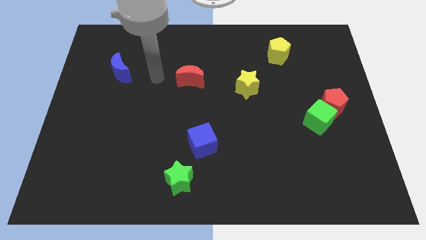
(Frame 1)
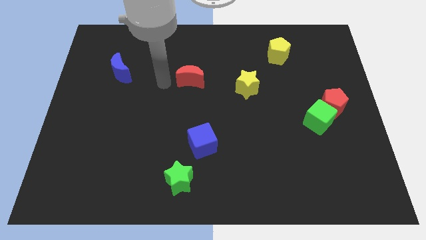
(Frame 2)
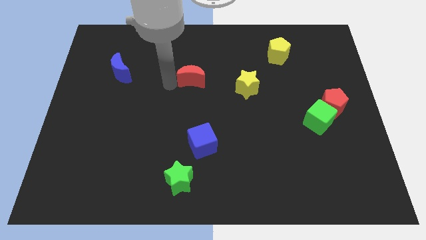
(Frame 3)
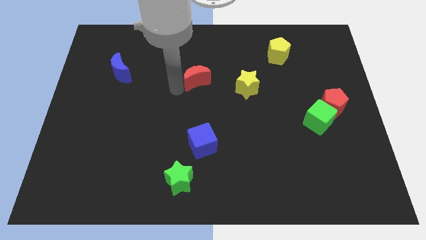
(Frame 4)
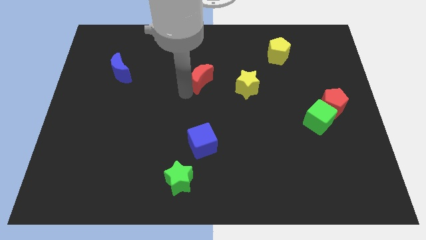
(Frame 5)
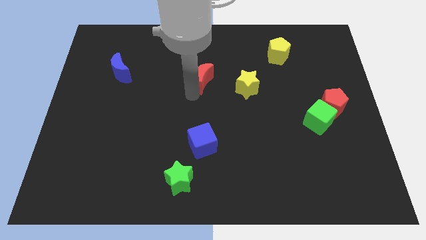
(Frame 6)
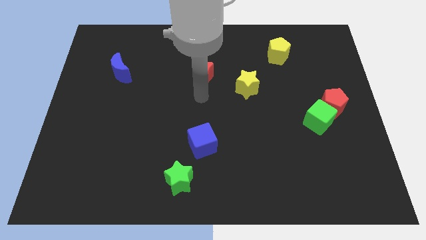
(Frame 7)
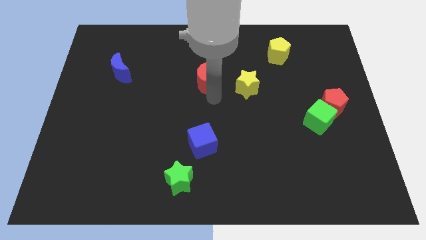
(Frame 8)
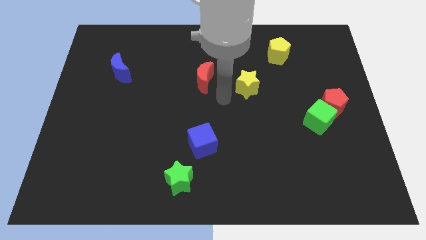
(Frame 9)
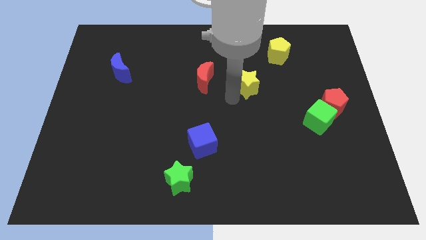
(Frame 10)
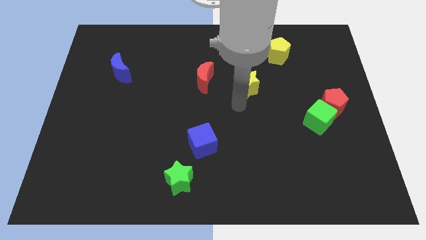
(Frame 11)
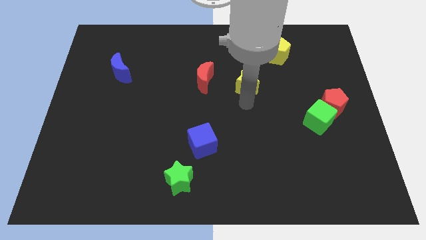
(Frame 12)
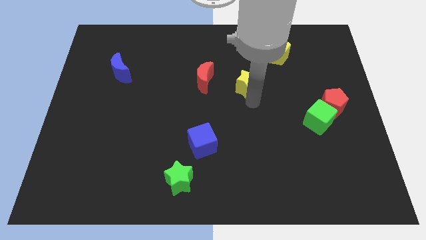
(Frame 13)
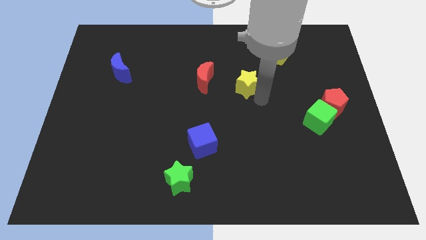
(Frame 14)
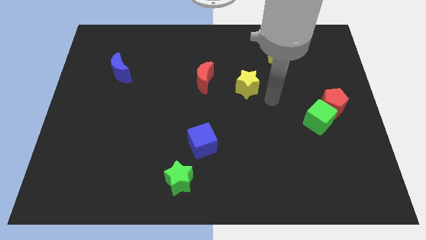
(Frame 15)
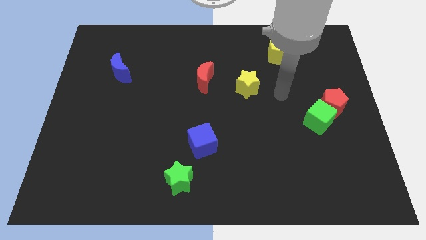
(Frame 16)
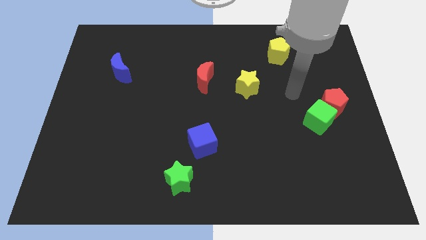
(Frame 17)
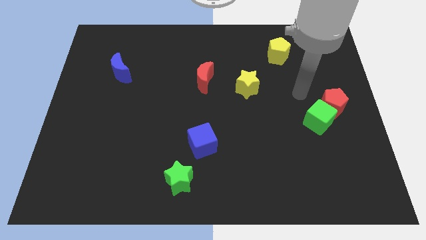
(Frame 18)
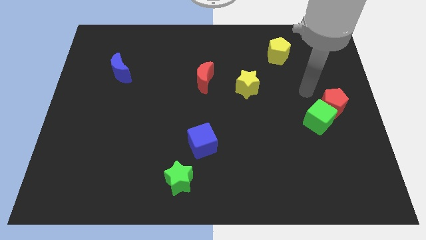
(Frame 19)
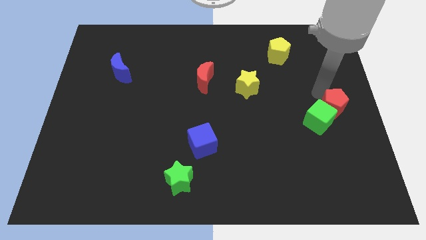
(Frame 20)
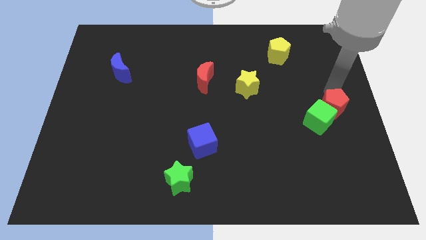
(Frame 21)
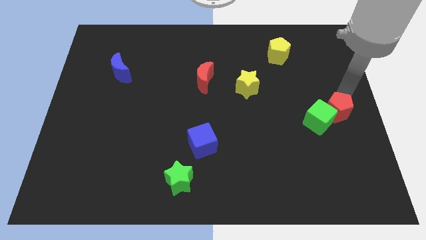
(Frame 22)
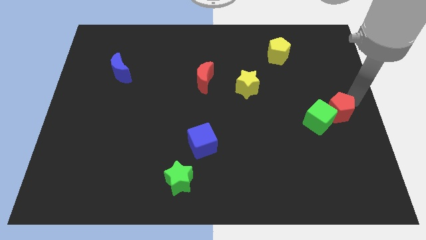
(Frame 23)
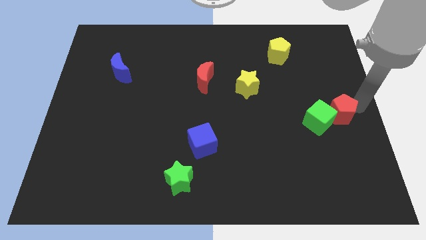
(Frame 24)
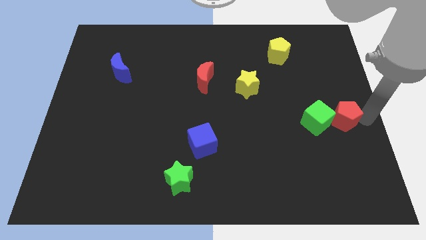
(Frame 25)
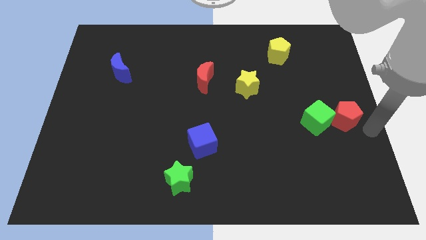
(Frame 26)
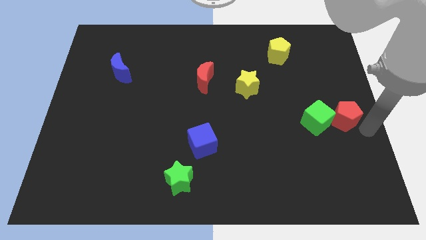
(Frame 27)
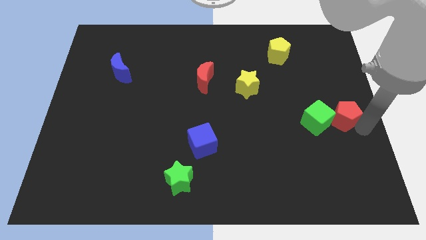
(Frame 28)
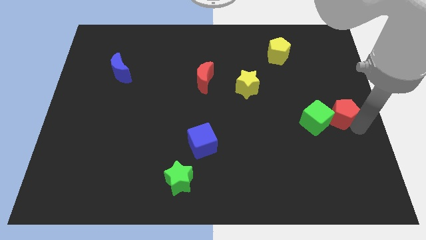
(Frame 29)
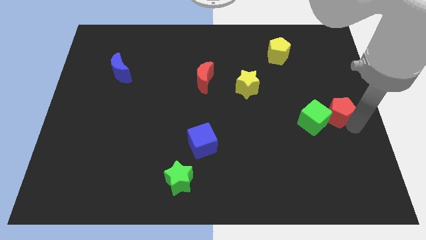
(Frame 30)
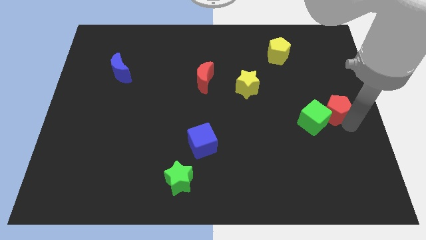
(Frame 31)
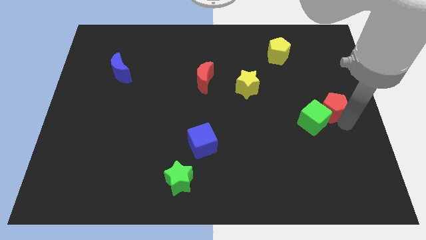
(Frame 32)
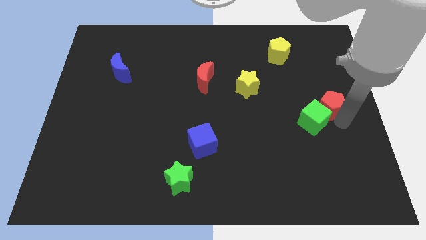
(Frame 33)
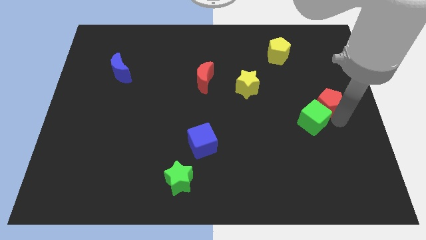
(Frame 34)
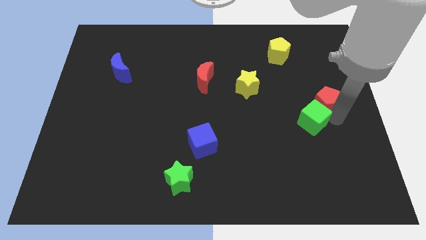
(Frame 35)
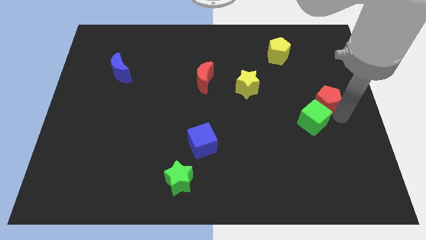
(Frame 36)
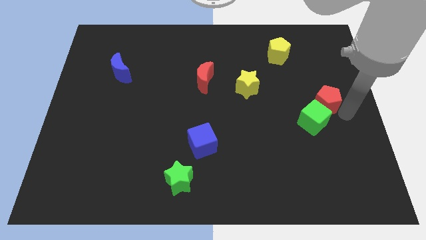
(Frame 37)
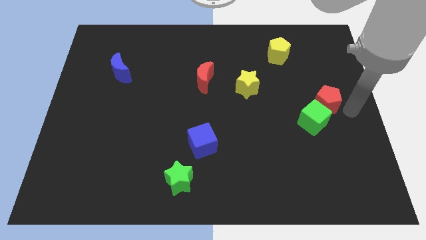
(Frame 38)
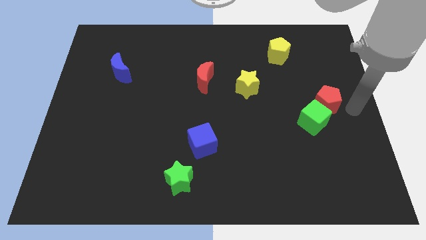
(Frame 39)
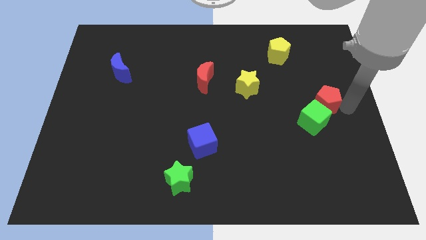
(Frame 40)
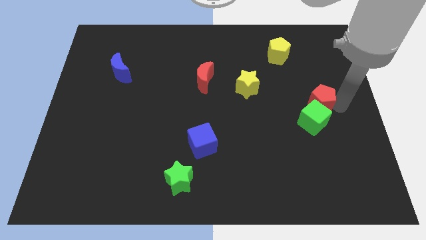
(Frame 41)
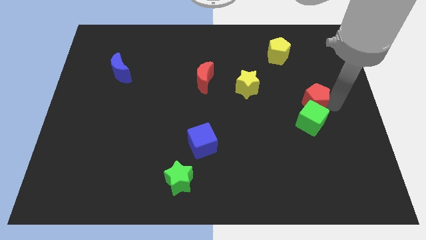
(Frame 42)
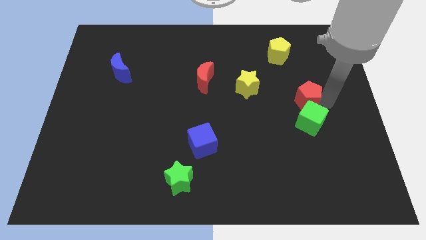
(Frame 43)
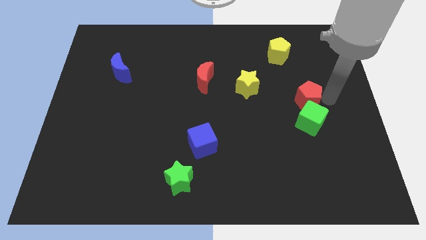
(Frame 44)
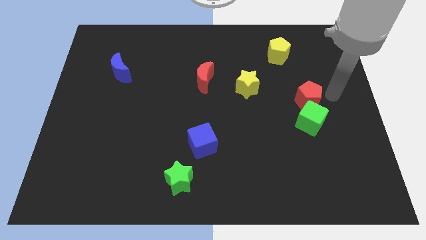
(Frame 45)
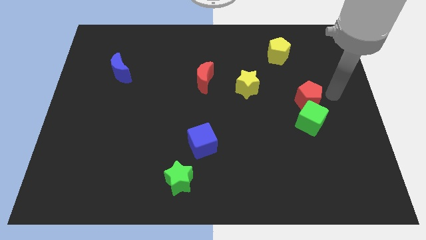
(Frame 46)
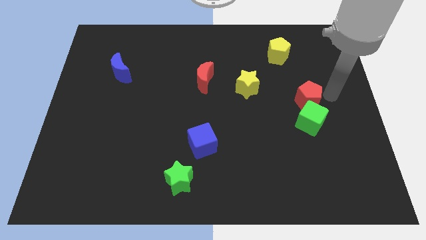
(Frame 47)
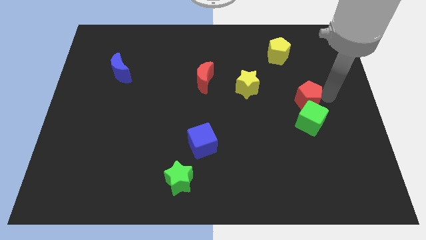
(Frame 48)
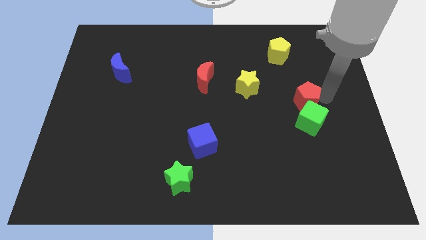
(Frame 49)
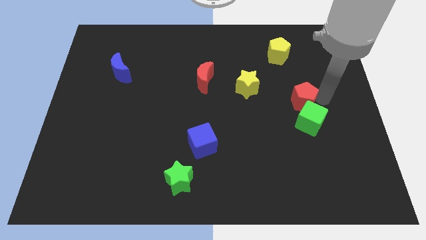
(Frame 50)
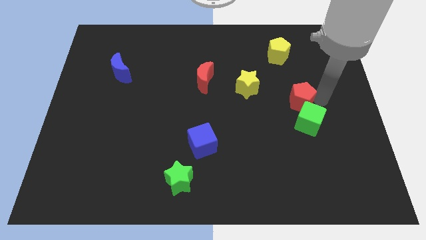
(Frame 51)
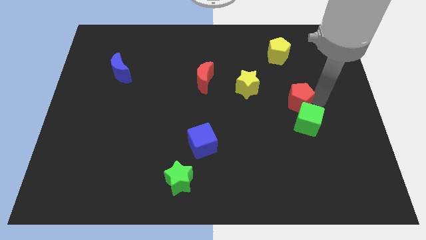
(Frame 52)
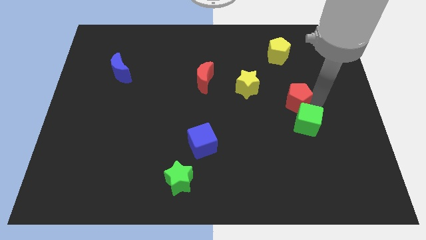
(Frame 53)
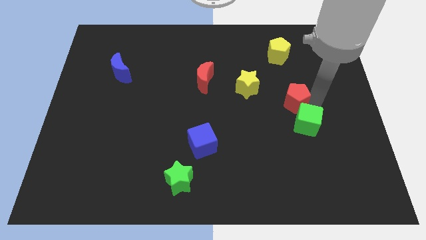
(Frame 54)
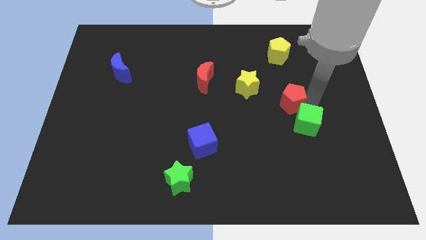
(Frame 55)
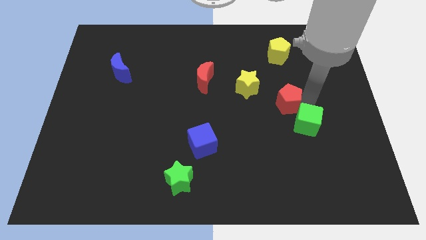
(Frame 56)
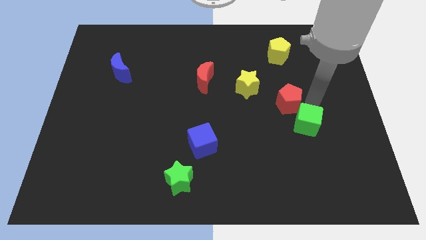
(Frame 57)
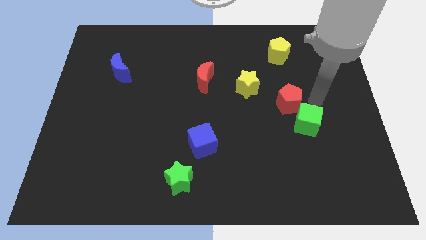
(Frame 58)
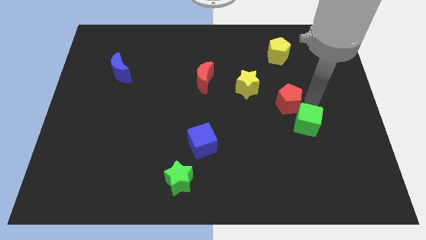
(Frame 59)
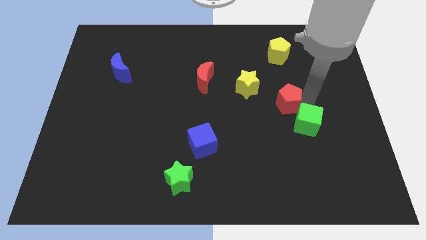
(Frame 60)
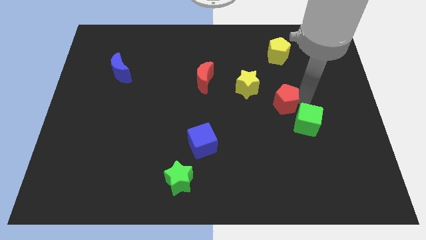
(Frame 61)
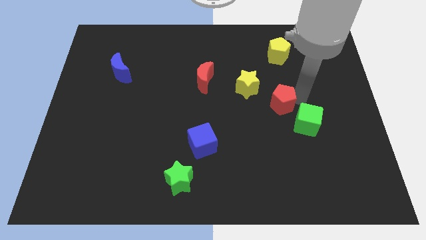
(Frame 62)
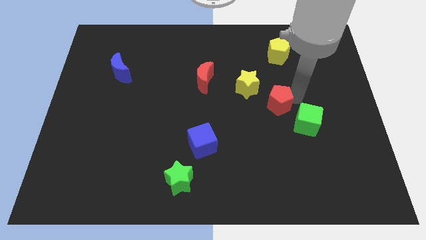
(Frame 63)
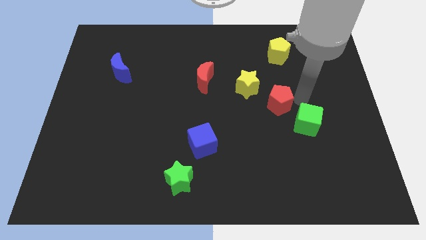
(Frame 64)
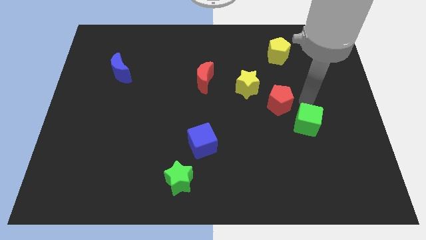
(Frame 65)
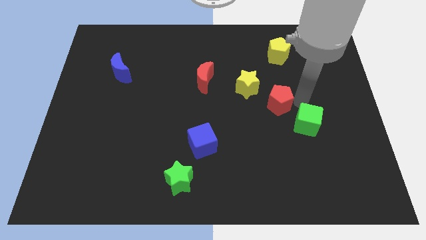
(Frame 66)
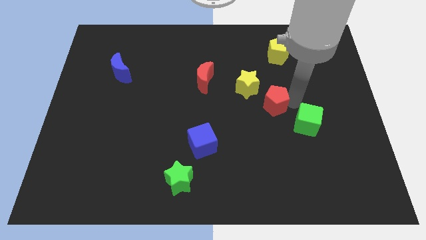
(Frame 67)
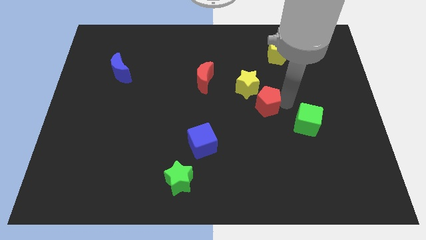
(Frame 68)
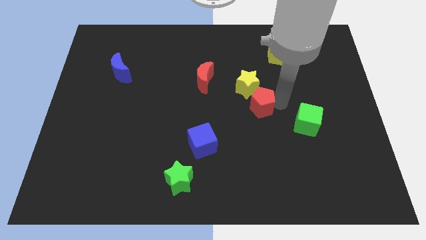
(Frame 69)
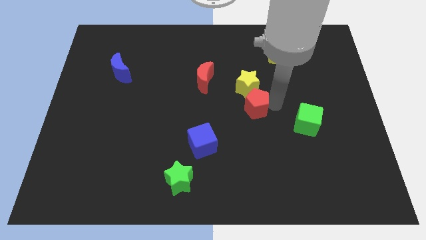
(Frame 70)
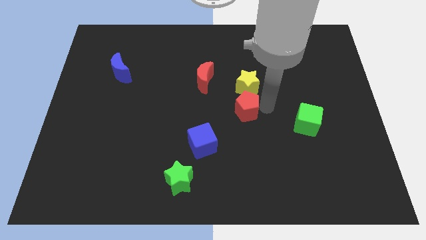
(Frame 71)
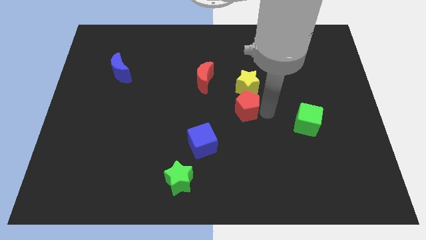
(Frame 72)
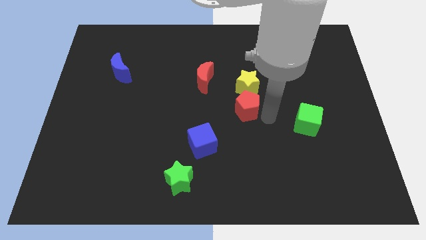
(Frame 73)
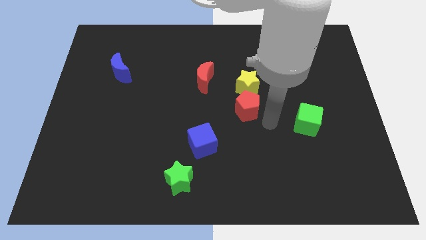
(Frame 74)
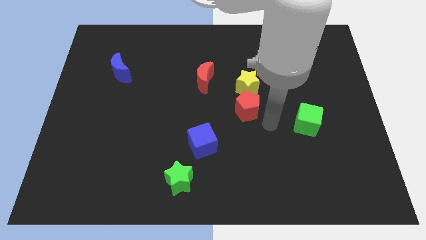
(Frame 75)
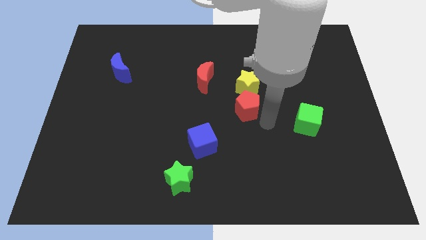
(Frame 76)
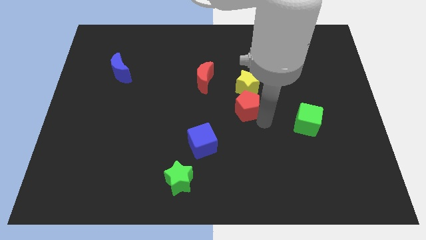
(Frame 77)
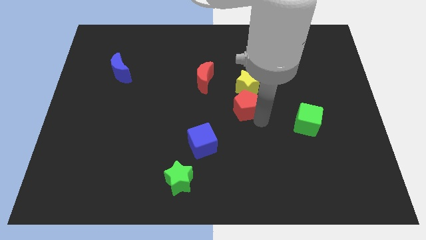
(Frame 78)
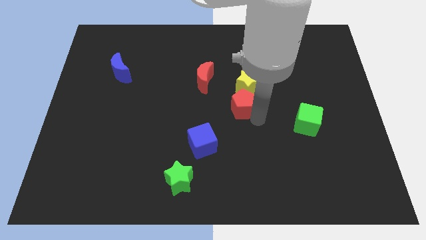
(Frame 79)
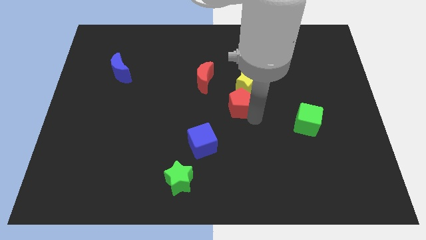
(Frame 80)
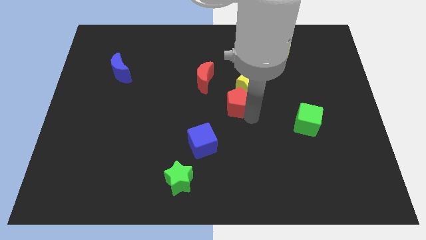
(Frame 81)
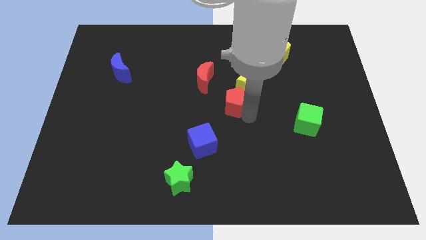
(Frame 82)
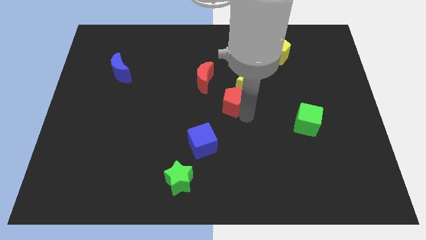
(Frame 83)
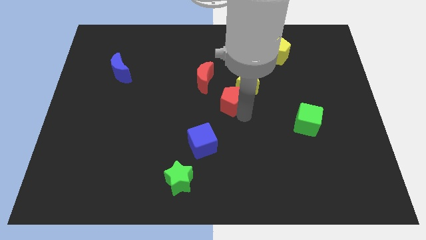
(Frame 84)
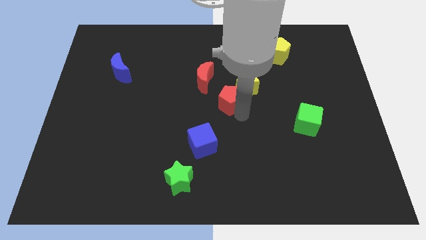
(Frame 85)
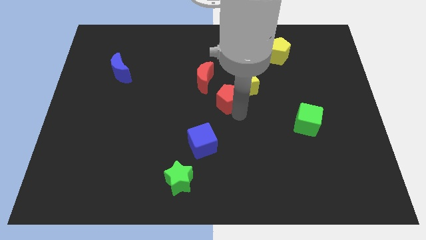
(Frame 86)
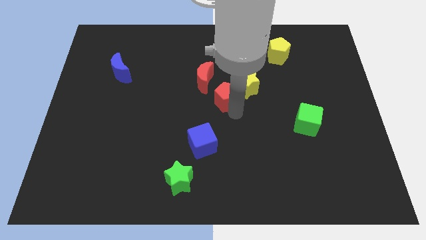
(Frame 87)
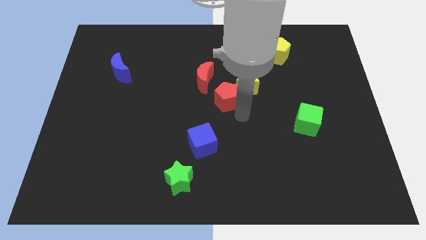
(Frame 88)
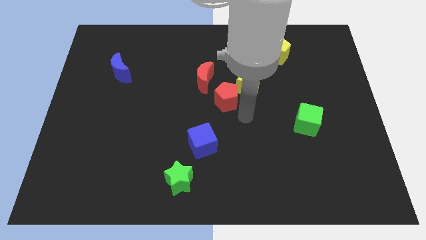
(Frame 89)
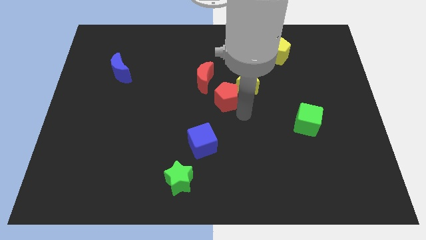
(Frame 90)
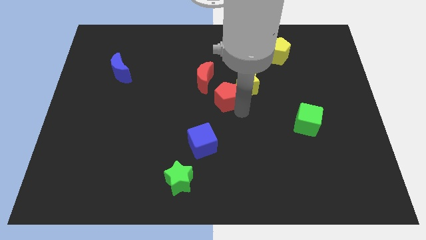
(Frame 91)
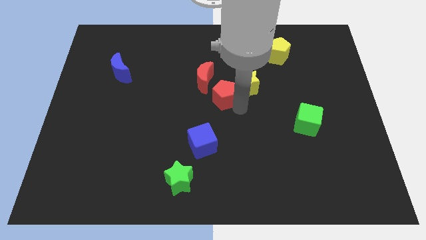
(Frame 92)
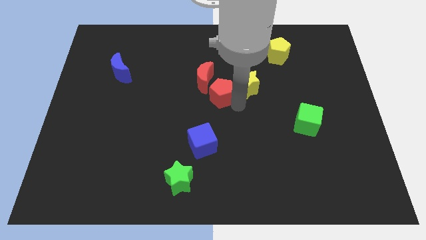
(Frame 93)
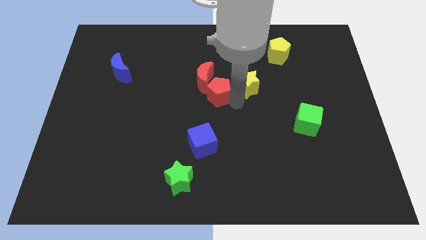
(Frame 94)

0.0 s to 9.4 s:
slide the red pentagon towards the red moon
